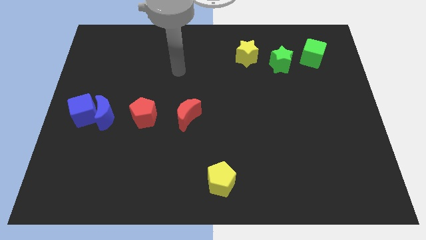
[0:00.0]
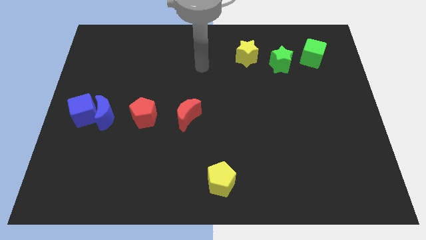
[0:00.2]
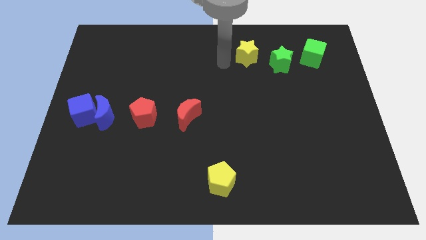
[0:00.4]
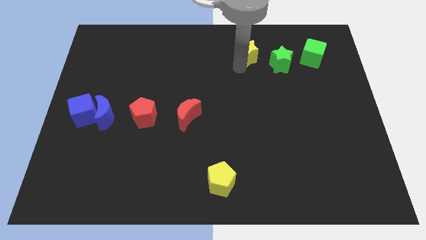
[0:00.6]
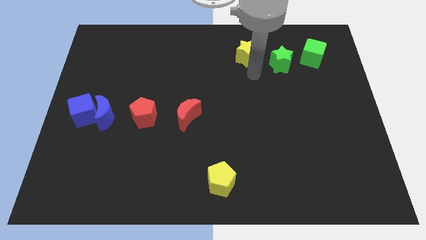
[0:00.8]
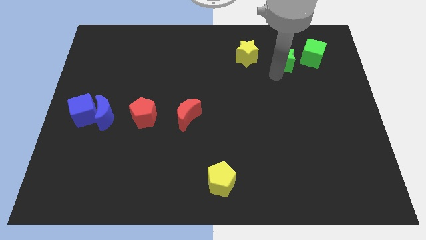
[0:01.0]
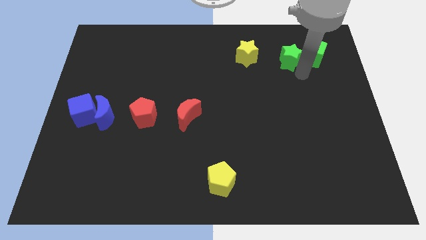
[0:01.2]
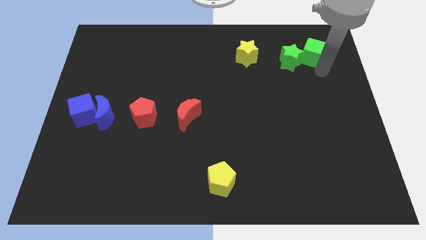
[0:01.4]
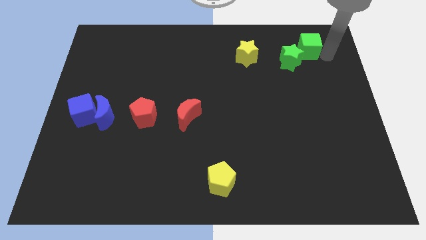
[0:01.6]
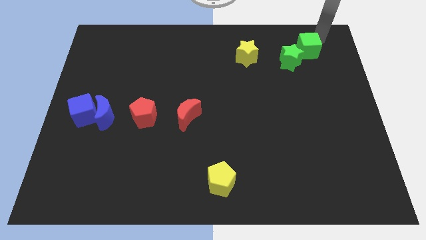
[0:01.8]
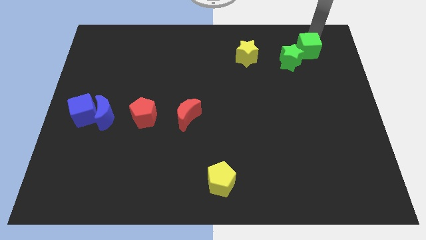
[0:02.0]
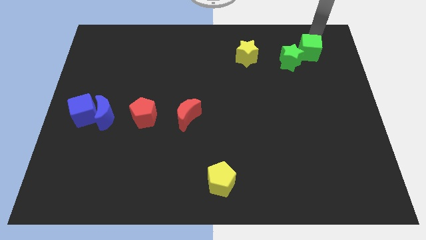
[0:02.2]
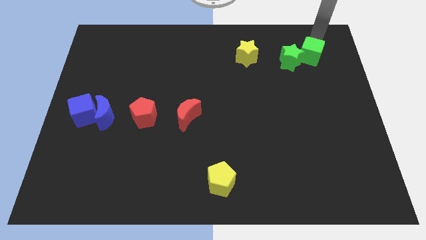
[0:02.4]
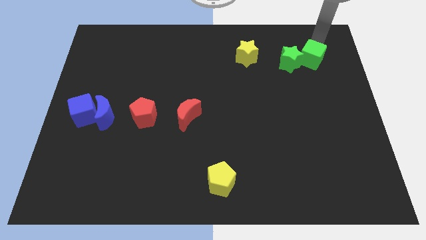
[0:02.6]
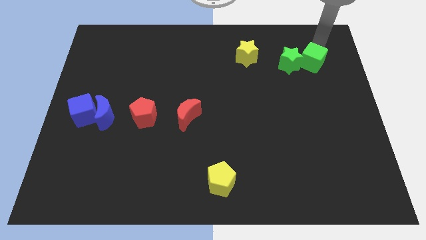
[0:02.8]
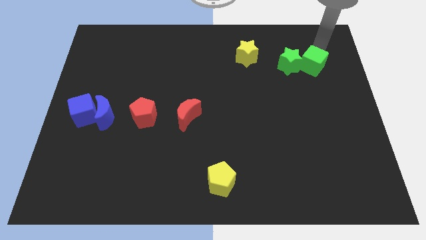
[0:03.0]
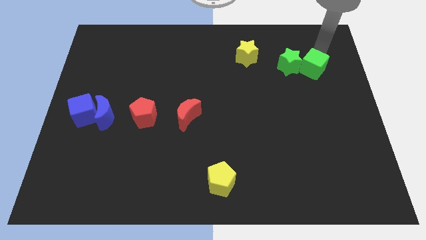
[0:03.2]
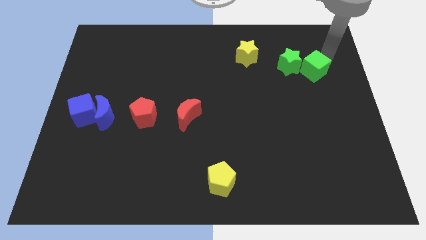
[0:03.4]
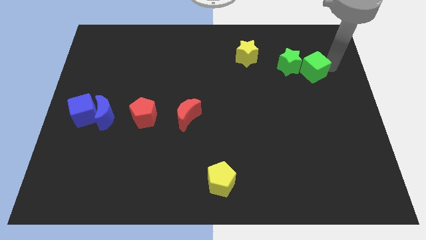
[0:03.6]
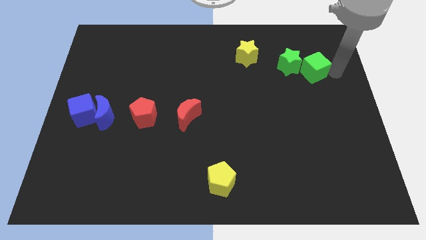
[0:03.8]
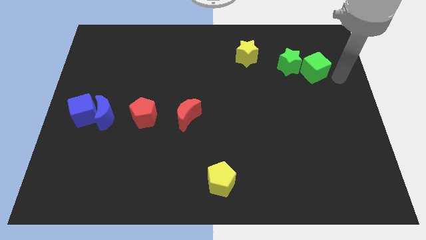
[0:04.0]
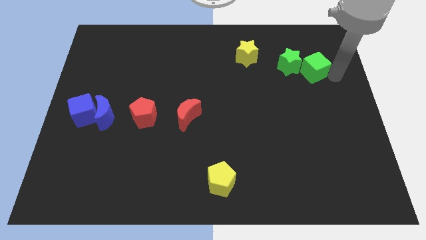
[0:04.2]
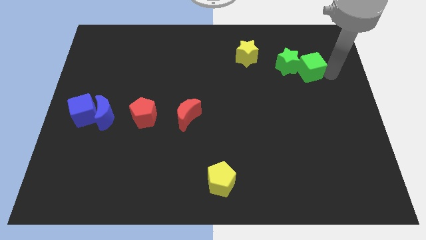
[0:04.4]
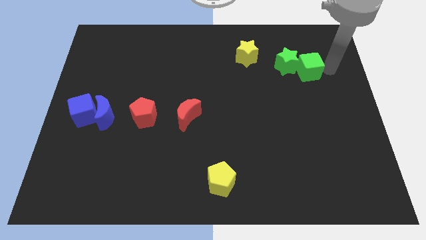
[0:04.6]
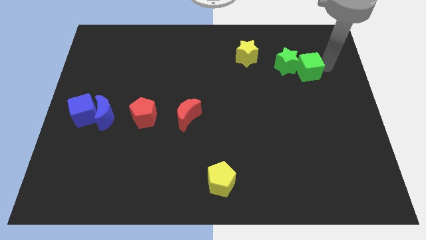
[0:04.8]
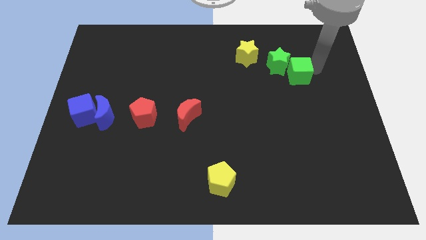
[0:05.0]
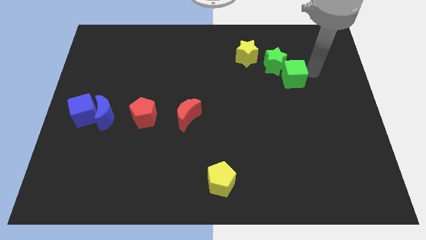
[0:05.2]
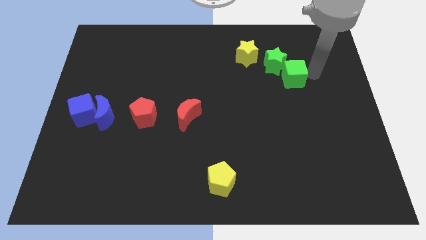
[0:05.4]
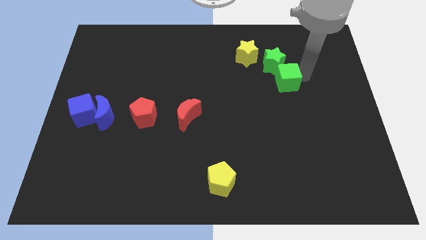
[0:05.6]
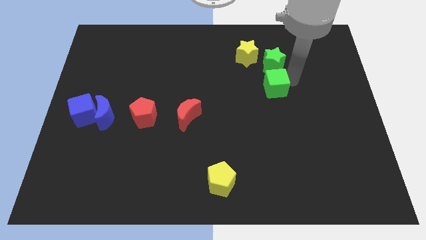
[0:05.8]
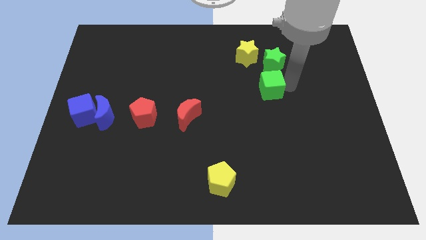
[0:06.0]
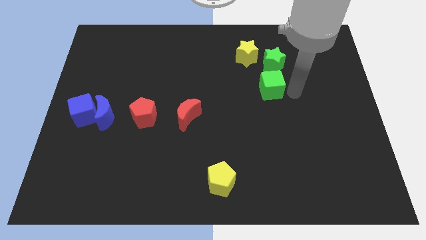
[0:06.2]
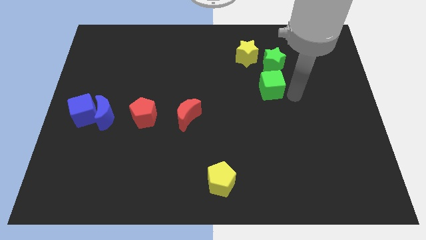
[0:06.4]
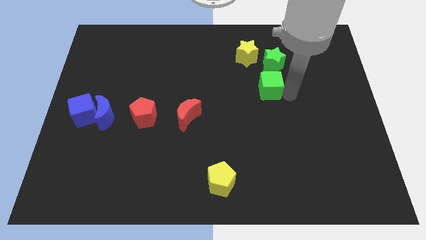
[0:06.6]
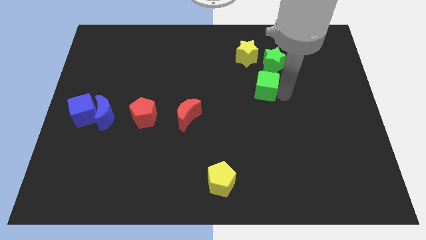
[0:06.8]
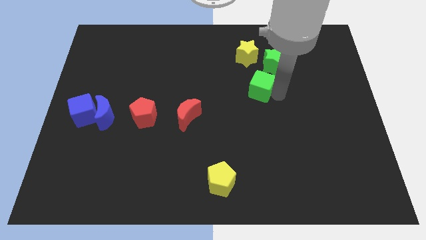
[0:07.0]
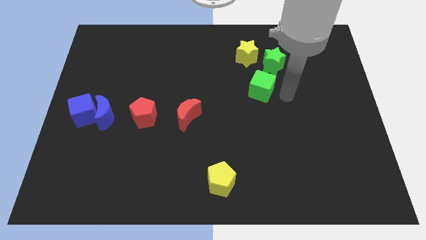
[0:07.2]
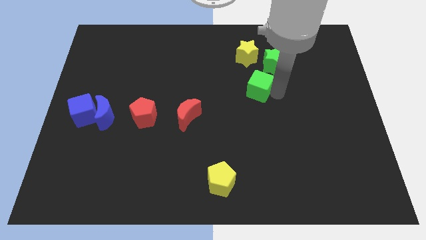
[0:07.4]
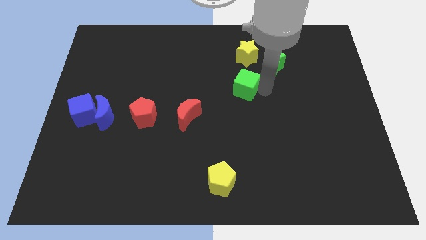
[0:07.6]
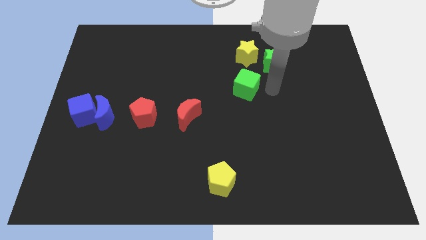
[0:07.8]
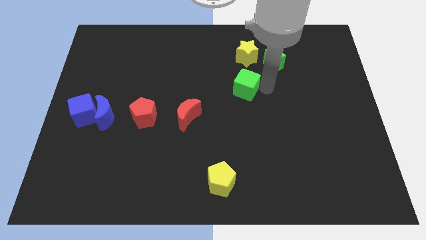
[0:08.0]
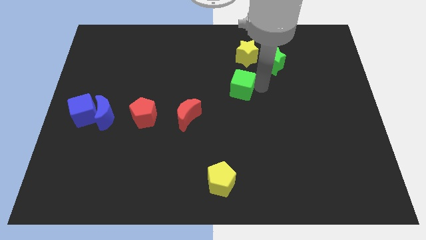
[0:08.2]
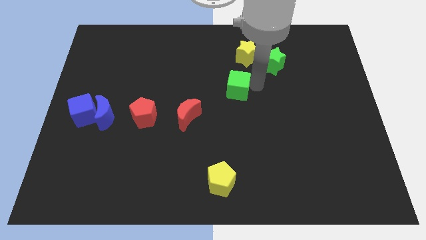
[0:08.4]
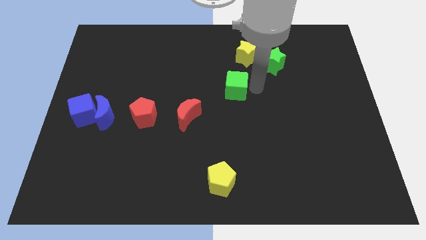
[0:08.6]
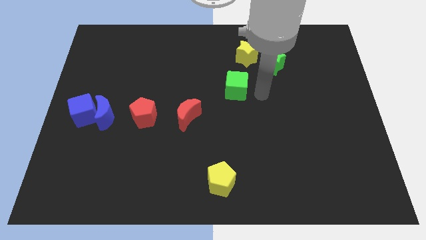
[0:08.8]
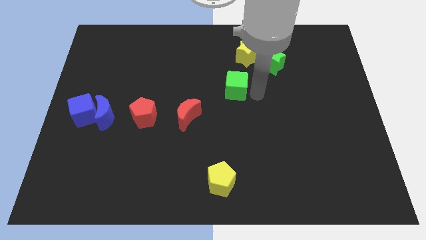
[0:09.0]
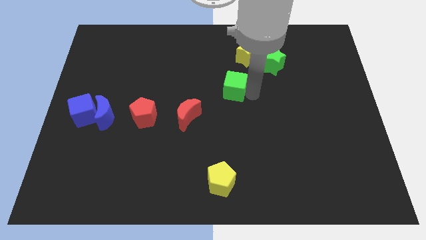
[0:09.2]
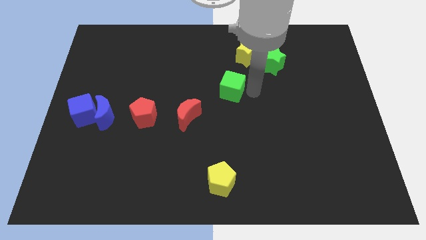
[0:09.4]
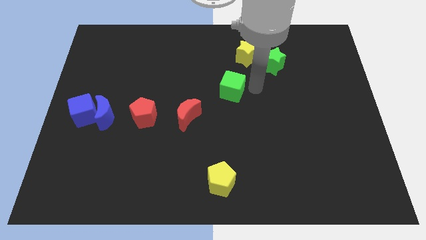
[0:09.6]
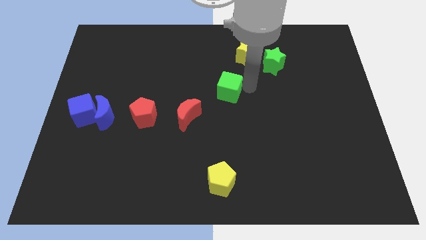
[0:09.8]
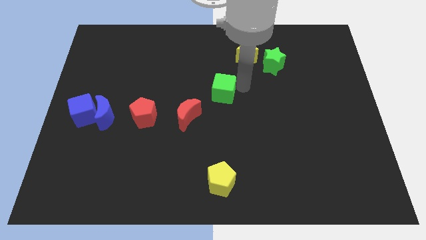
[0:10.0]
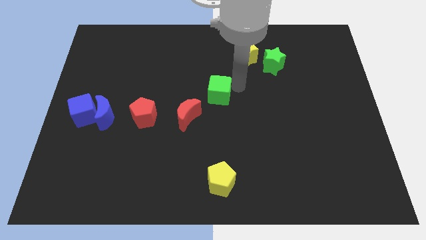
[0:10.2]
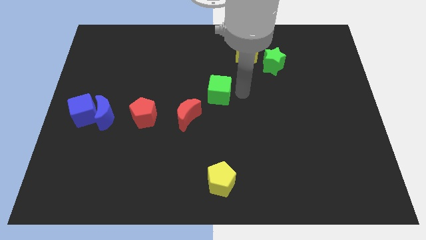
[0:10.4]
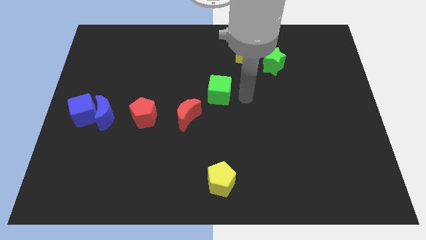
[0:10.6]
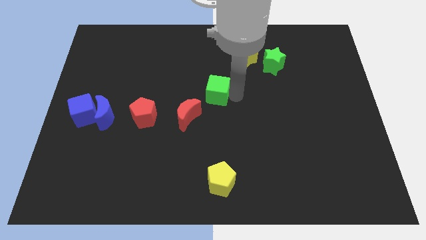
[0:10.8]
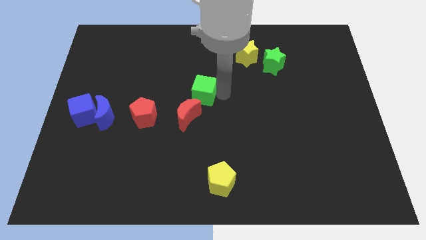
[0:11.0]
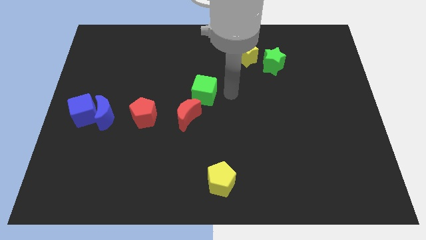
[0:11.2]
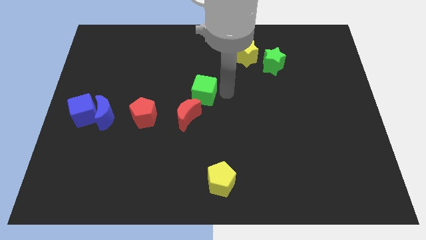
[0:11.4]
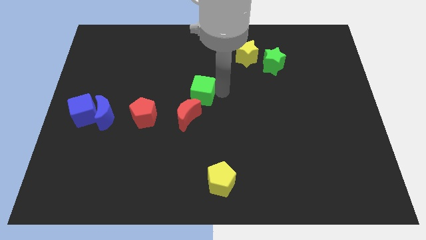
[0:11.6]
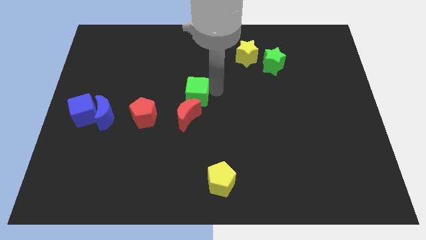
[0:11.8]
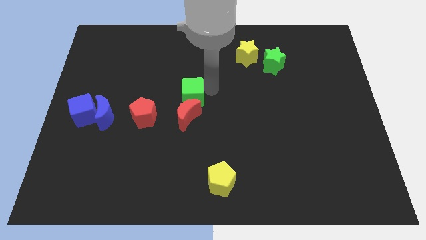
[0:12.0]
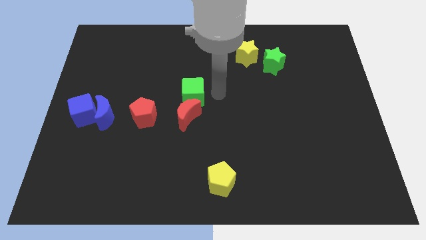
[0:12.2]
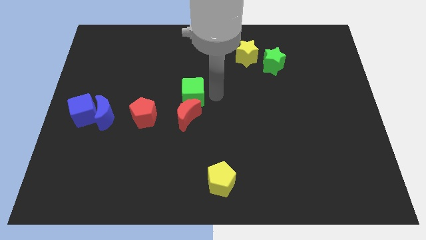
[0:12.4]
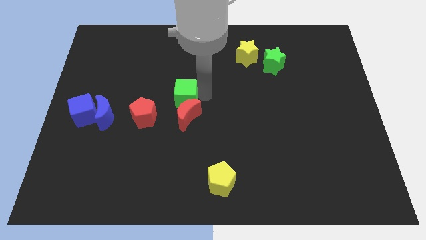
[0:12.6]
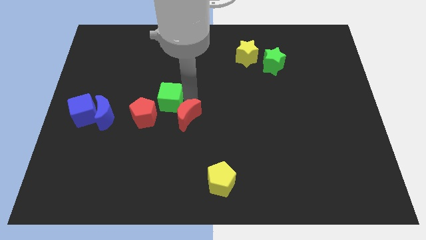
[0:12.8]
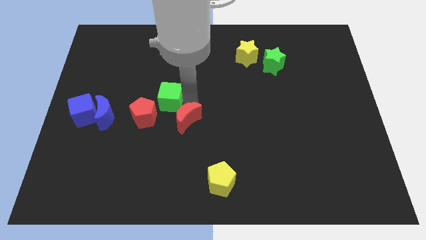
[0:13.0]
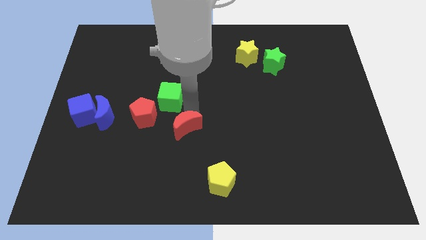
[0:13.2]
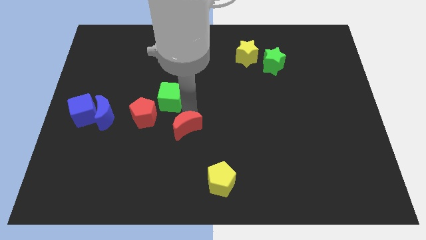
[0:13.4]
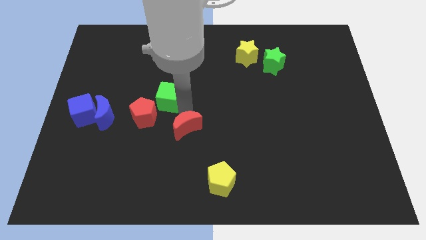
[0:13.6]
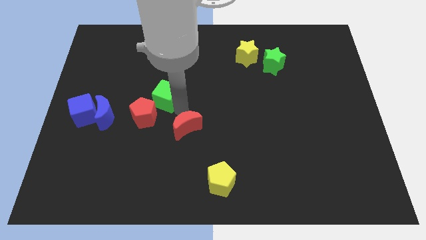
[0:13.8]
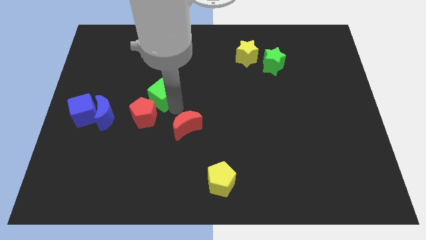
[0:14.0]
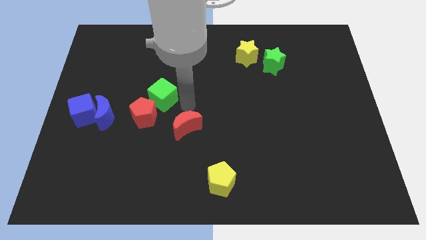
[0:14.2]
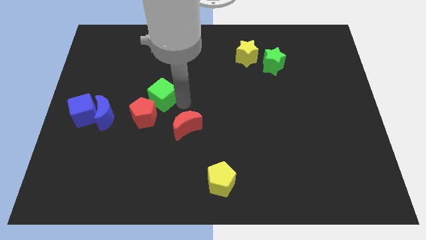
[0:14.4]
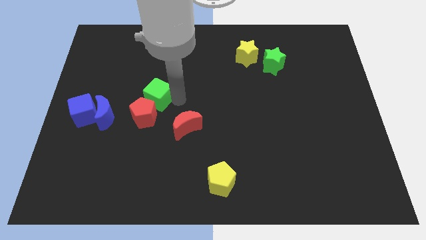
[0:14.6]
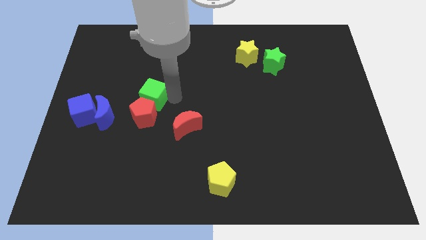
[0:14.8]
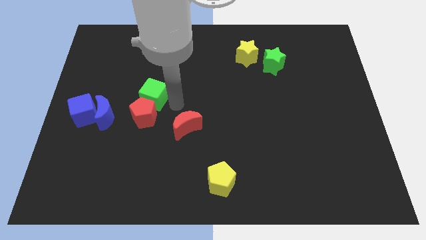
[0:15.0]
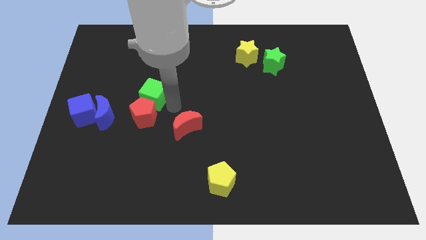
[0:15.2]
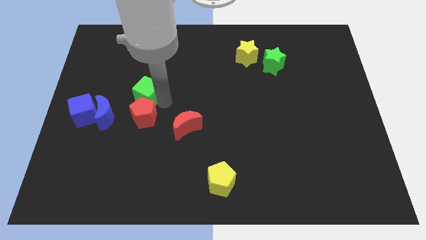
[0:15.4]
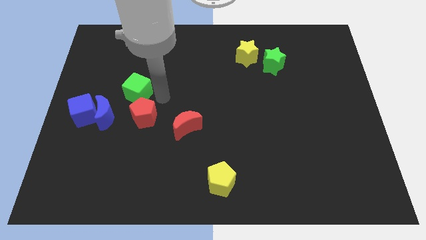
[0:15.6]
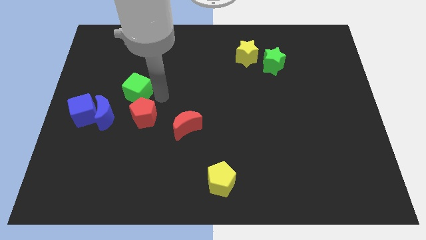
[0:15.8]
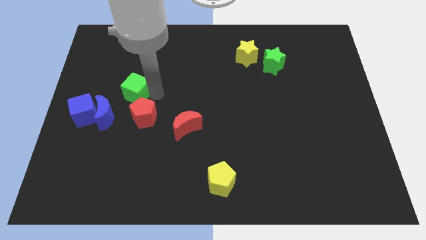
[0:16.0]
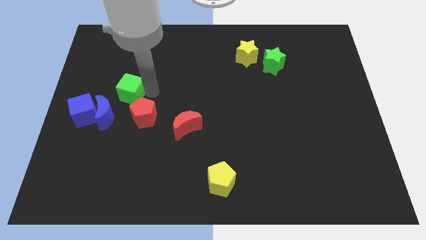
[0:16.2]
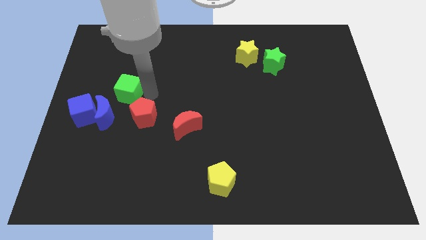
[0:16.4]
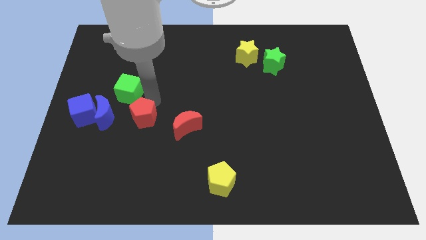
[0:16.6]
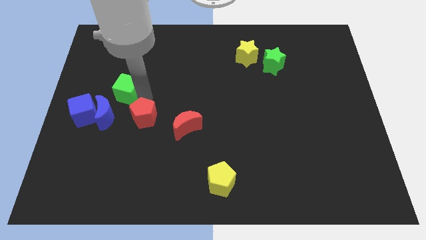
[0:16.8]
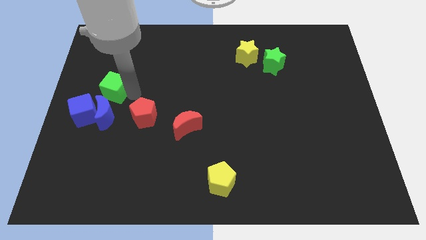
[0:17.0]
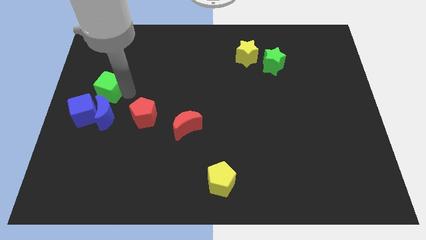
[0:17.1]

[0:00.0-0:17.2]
put the green cube to the left side of the board
